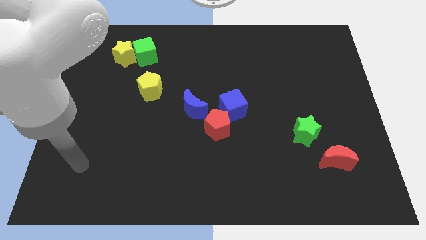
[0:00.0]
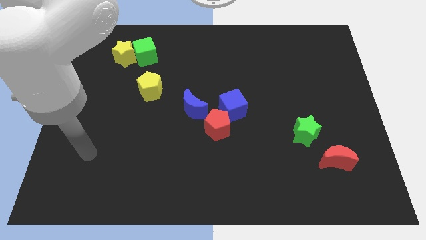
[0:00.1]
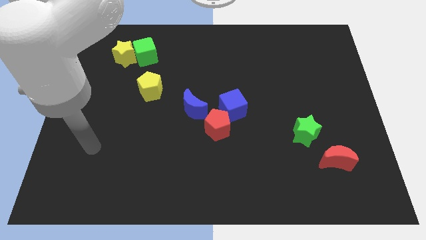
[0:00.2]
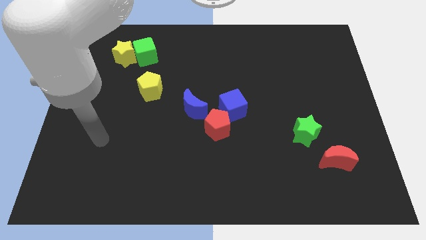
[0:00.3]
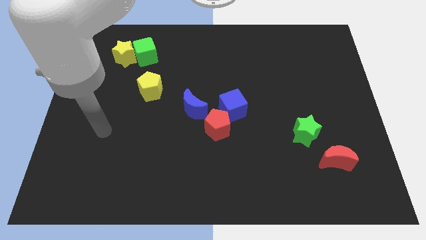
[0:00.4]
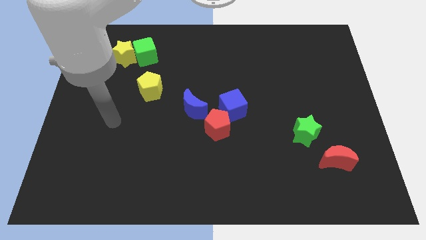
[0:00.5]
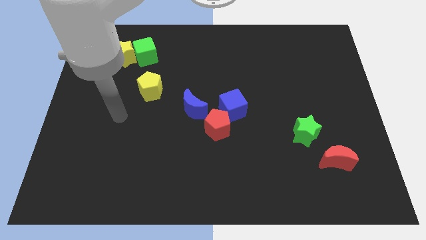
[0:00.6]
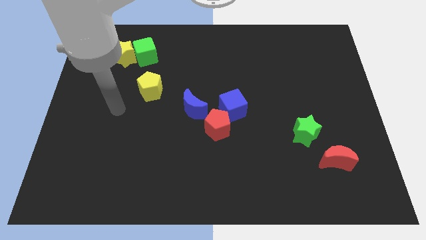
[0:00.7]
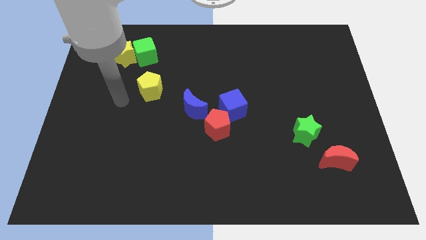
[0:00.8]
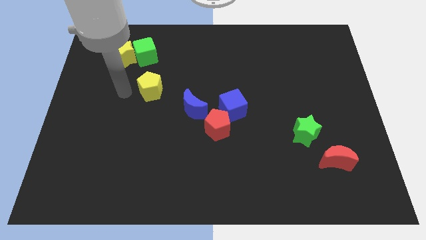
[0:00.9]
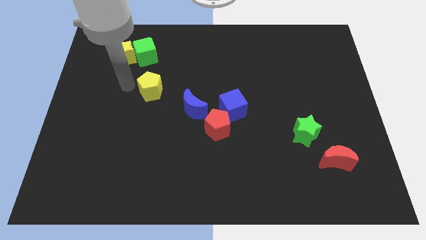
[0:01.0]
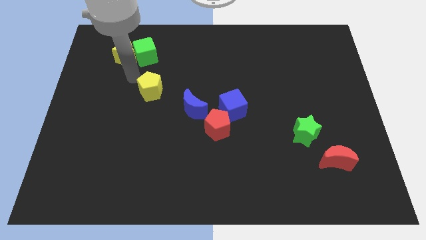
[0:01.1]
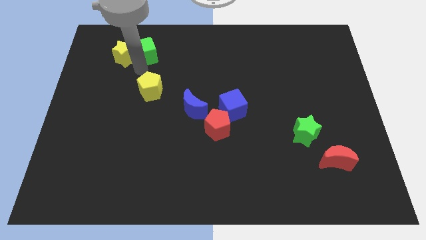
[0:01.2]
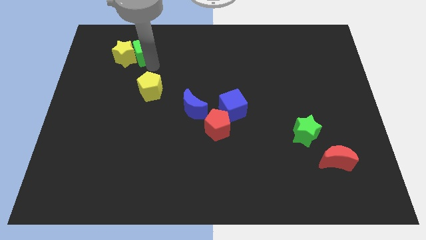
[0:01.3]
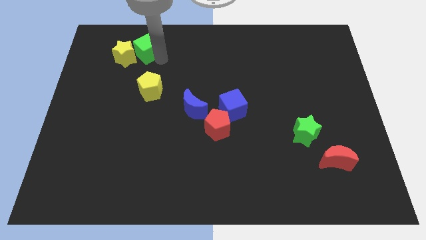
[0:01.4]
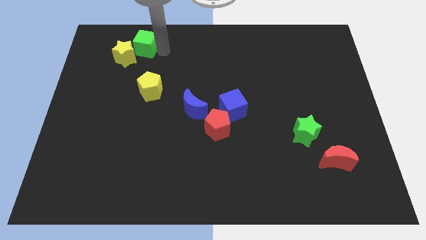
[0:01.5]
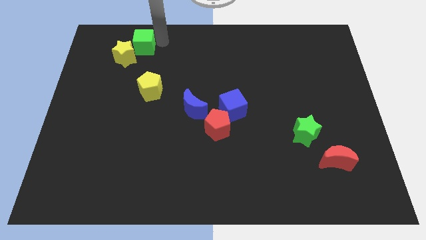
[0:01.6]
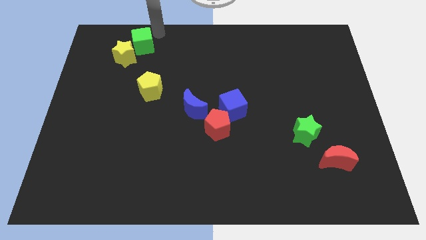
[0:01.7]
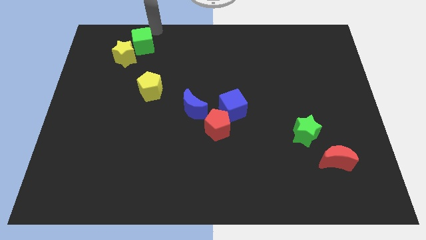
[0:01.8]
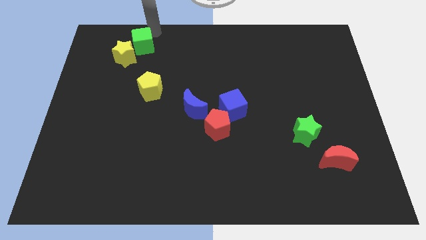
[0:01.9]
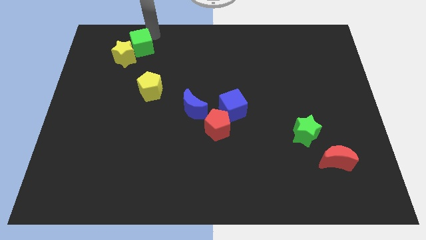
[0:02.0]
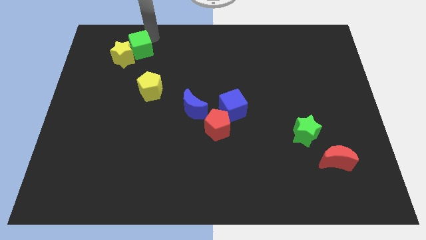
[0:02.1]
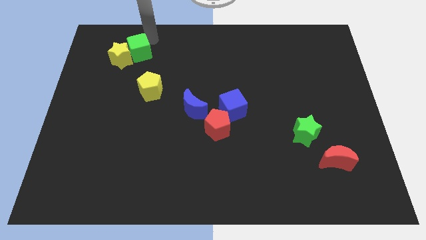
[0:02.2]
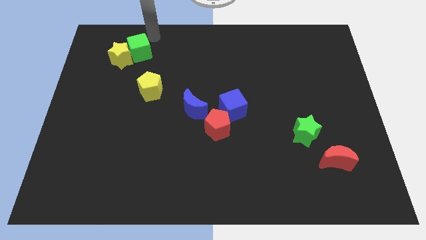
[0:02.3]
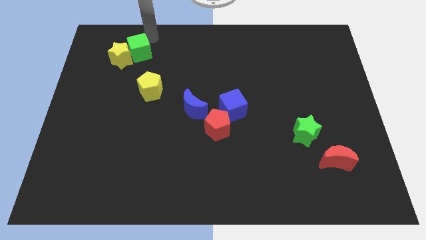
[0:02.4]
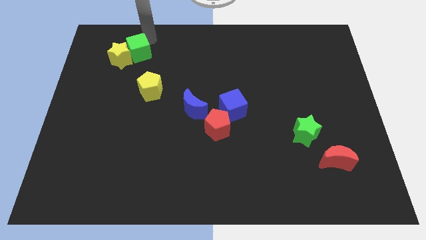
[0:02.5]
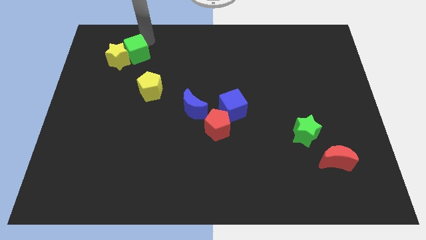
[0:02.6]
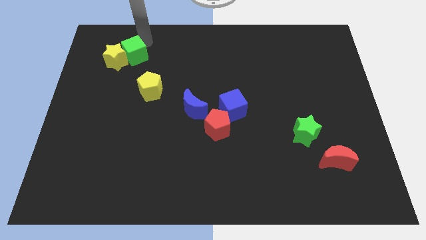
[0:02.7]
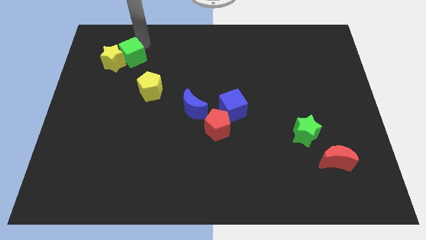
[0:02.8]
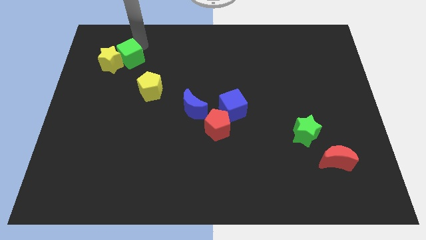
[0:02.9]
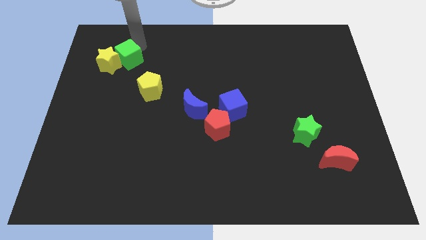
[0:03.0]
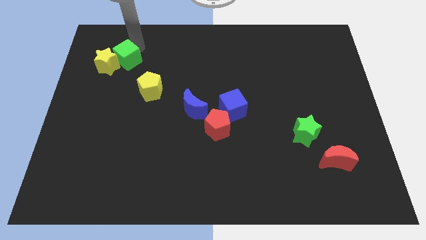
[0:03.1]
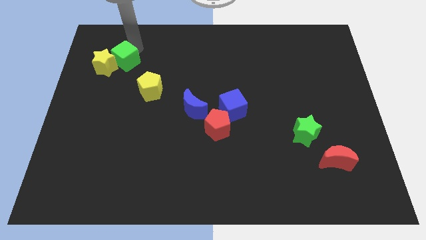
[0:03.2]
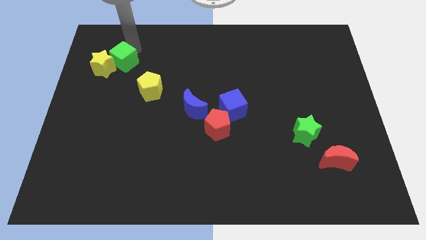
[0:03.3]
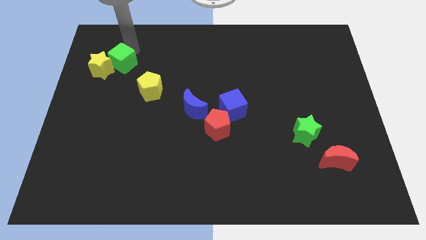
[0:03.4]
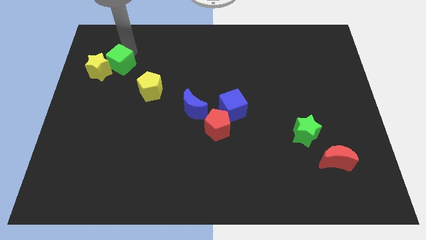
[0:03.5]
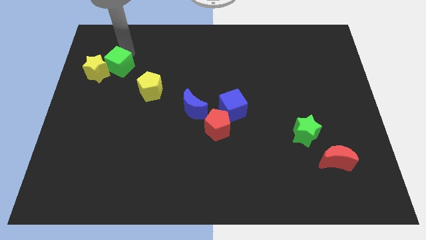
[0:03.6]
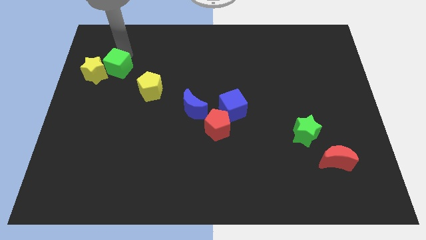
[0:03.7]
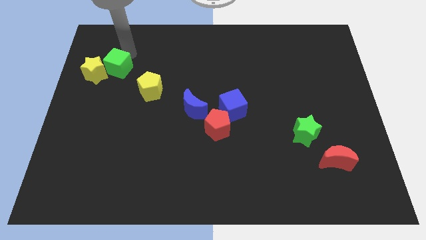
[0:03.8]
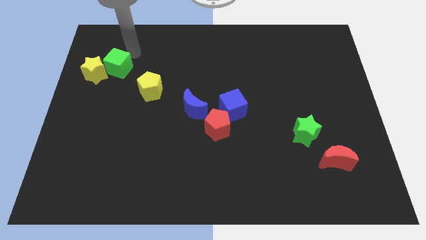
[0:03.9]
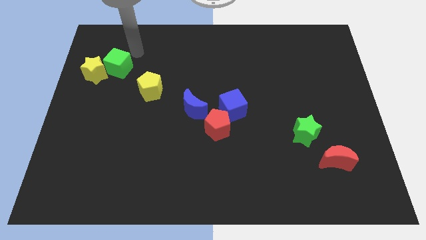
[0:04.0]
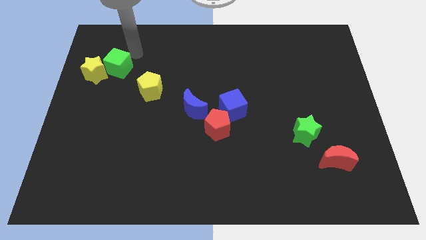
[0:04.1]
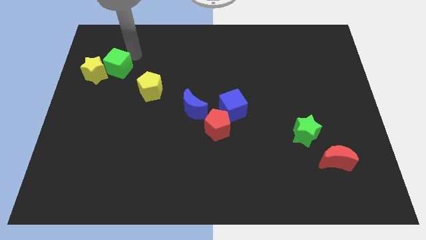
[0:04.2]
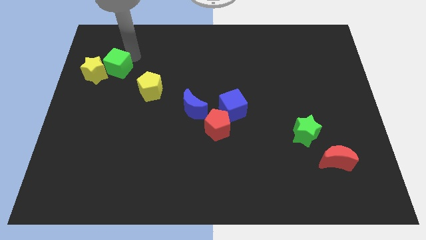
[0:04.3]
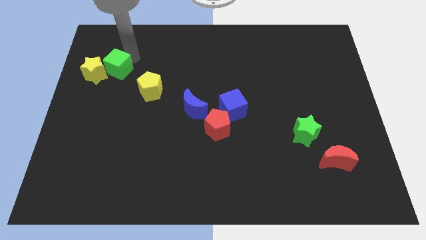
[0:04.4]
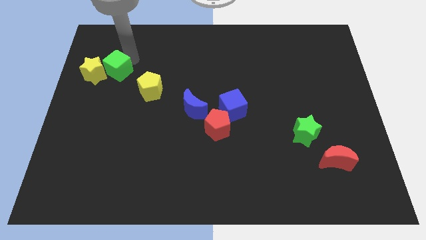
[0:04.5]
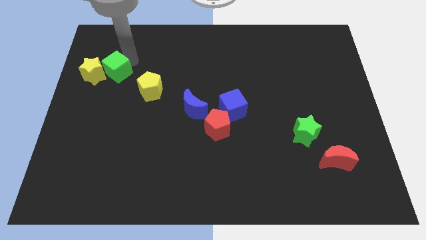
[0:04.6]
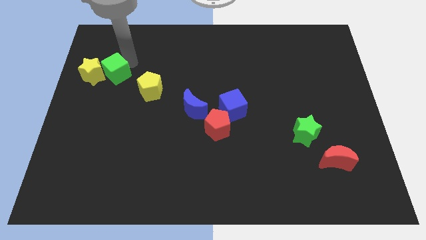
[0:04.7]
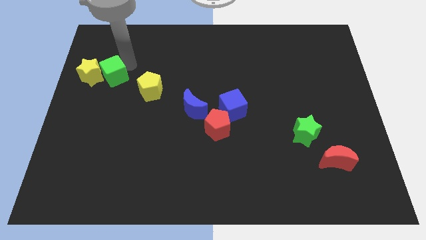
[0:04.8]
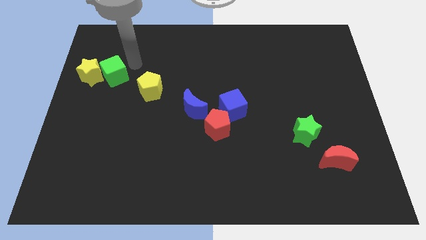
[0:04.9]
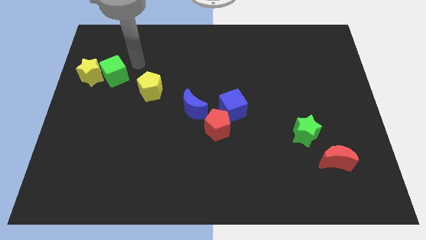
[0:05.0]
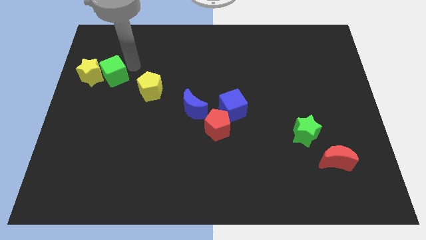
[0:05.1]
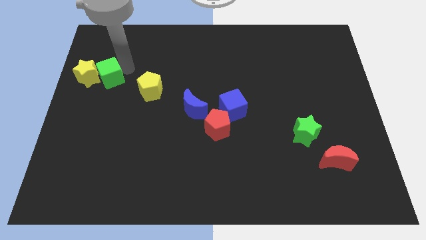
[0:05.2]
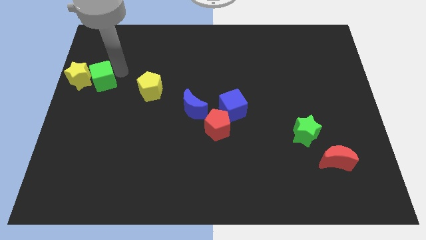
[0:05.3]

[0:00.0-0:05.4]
put the green cube to the center left

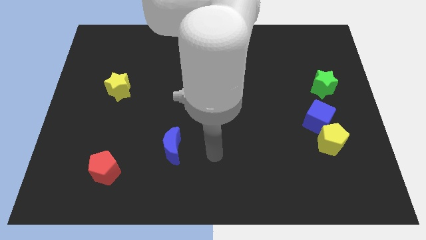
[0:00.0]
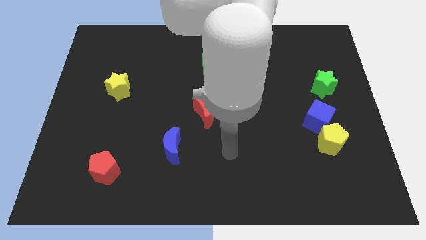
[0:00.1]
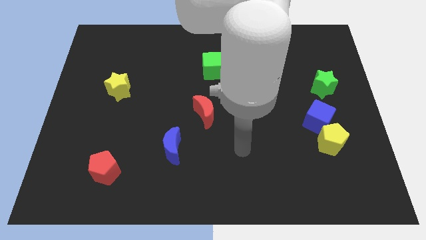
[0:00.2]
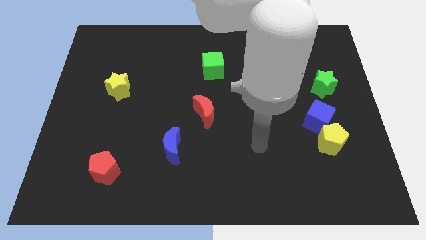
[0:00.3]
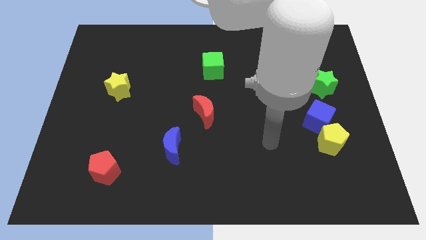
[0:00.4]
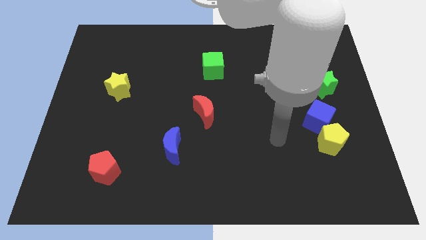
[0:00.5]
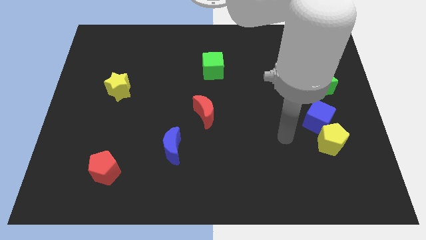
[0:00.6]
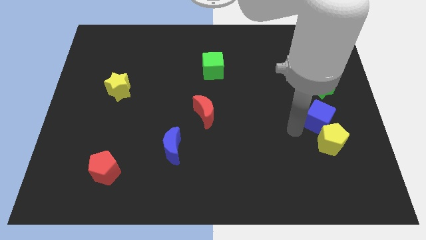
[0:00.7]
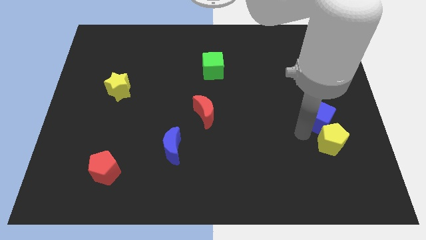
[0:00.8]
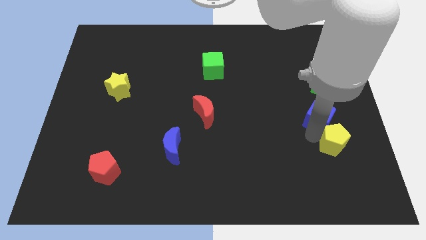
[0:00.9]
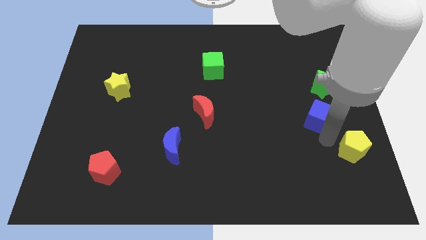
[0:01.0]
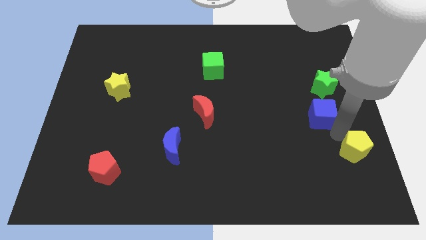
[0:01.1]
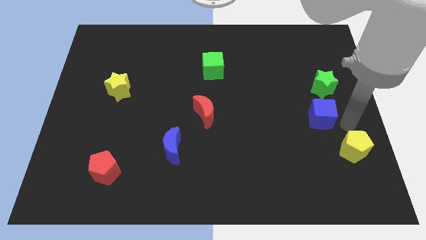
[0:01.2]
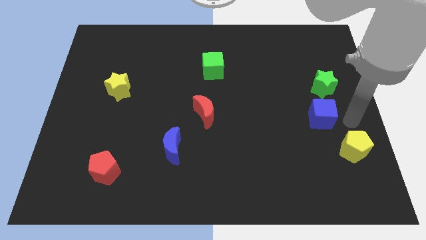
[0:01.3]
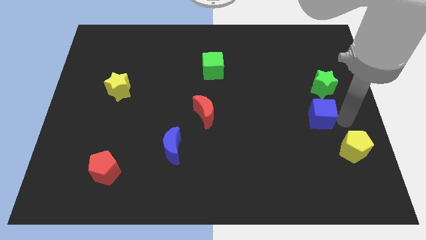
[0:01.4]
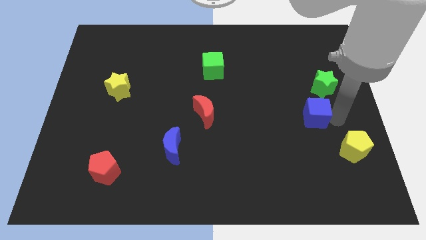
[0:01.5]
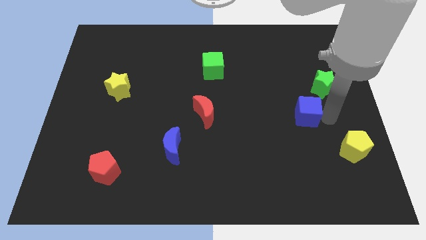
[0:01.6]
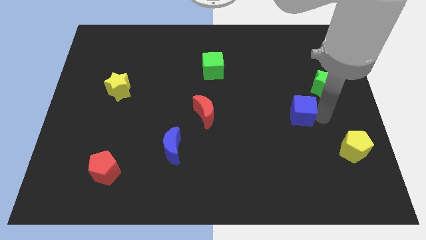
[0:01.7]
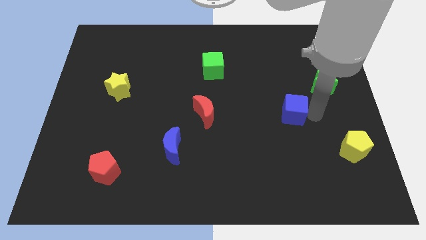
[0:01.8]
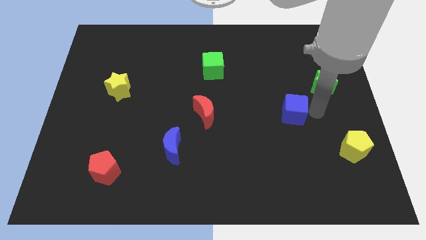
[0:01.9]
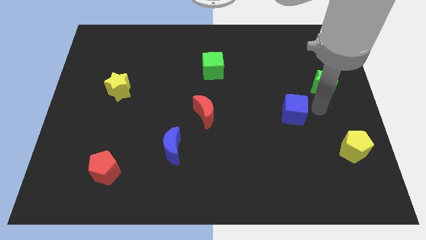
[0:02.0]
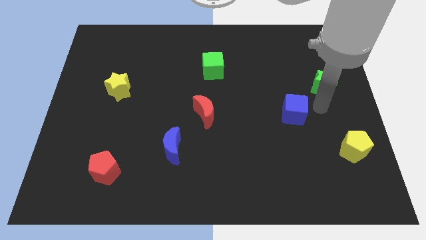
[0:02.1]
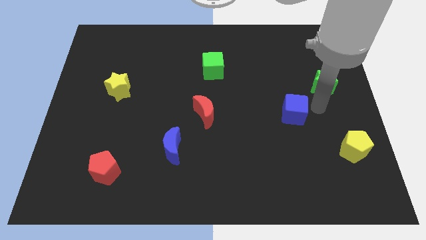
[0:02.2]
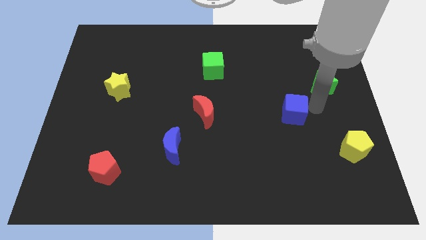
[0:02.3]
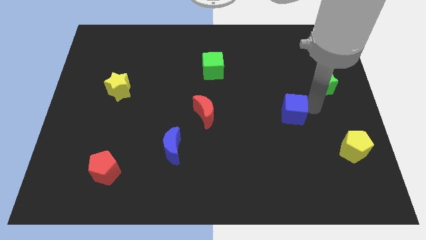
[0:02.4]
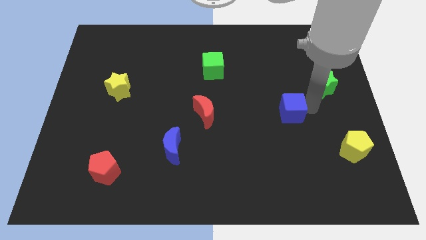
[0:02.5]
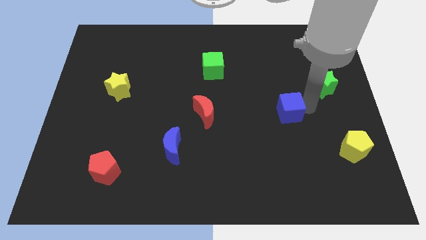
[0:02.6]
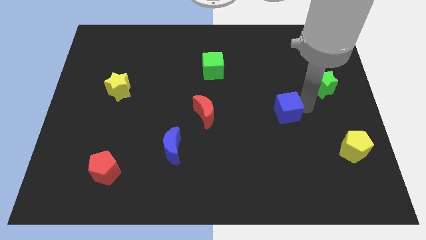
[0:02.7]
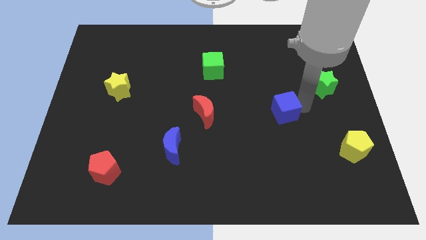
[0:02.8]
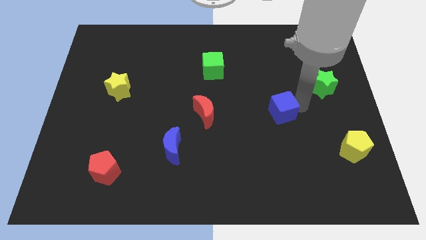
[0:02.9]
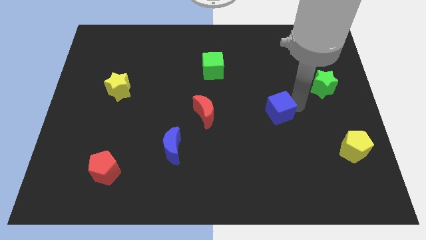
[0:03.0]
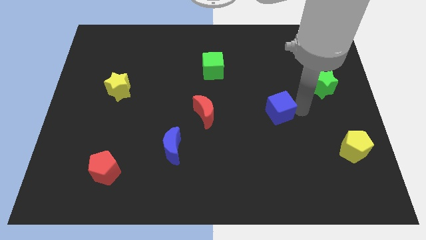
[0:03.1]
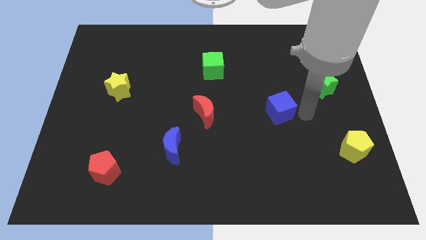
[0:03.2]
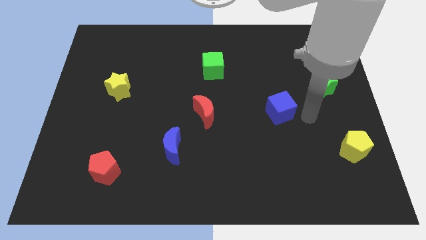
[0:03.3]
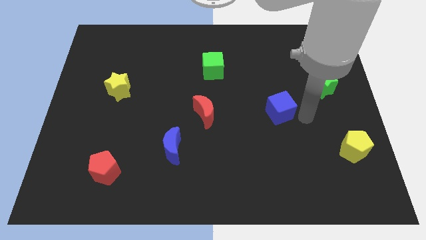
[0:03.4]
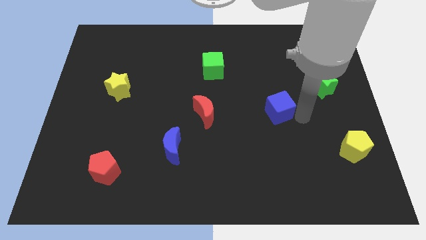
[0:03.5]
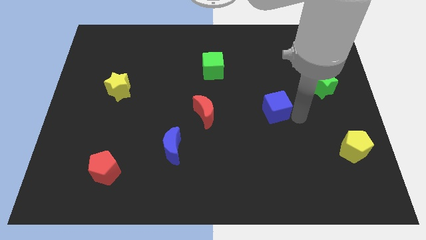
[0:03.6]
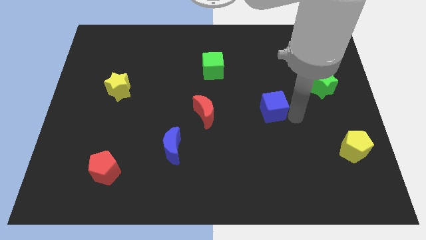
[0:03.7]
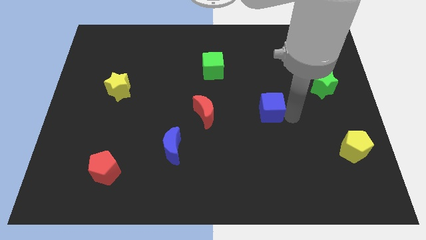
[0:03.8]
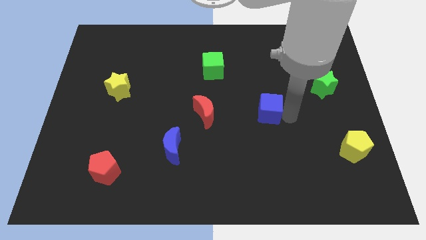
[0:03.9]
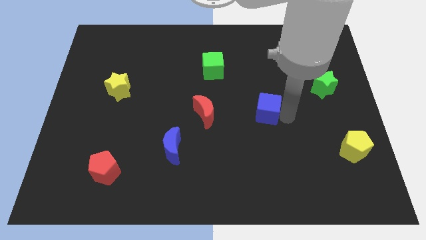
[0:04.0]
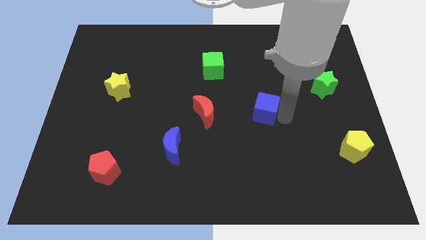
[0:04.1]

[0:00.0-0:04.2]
put the blue cube to the center
